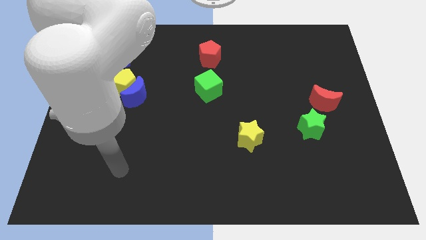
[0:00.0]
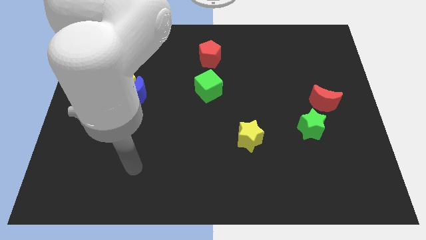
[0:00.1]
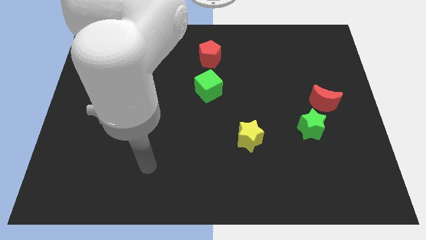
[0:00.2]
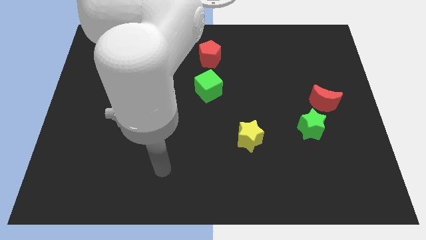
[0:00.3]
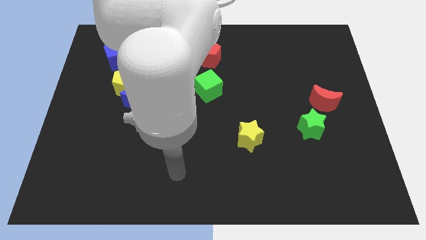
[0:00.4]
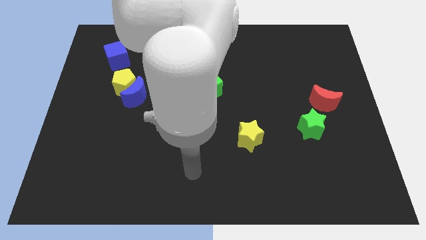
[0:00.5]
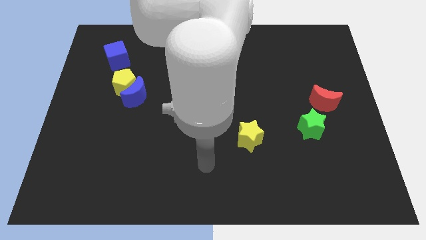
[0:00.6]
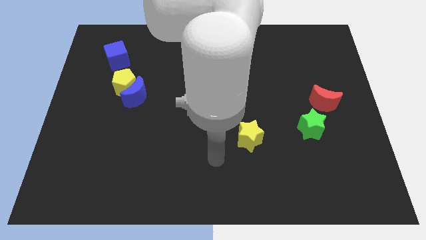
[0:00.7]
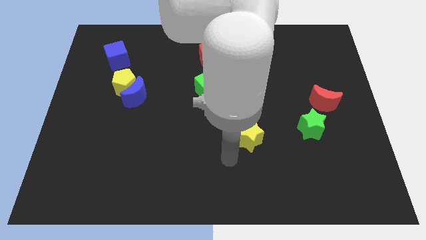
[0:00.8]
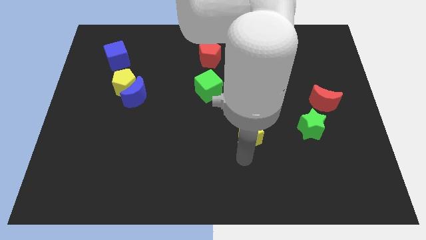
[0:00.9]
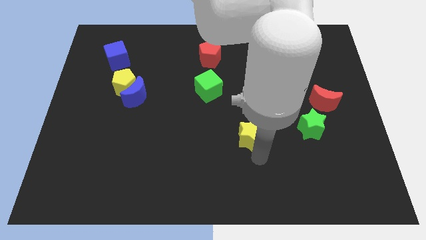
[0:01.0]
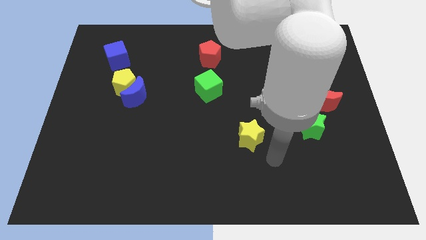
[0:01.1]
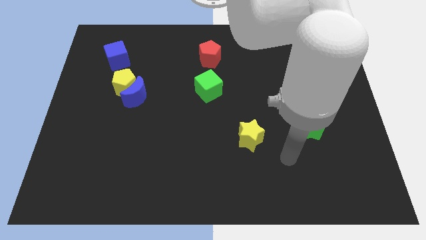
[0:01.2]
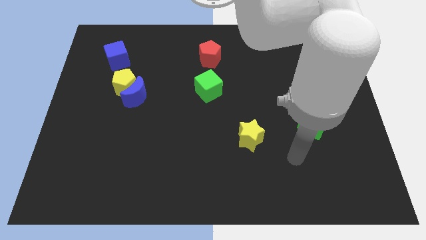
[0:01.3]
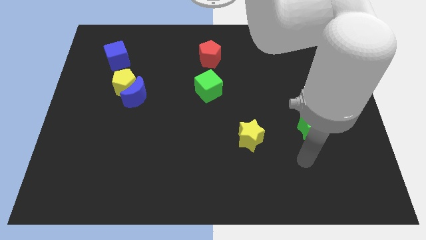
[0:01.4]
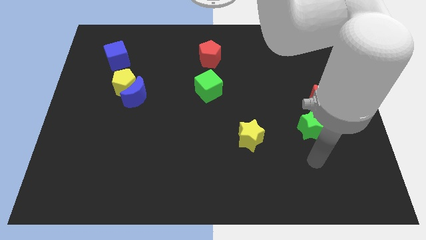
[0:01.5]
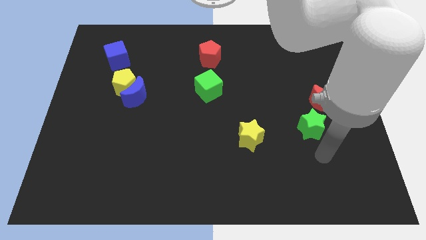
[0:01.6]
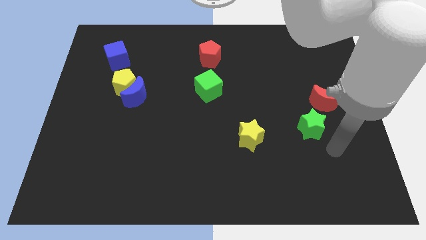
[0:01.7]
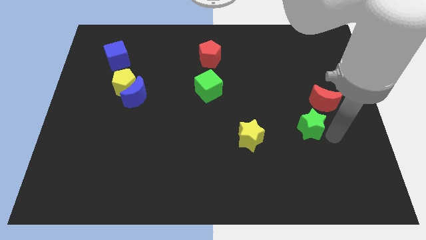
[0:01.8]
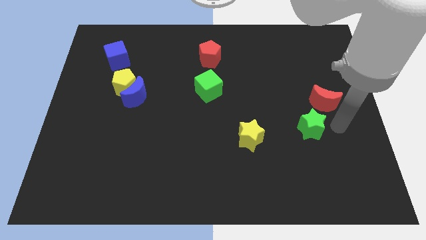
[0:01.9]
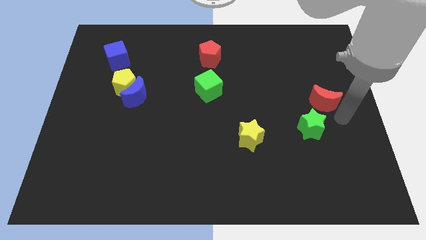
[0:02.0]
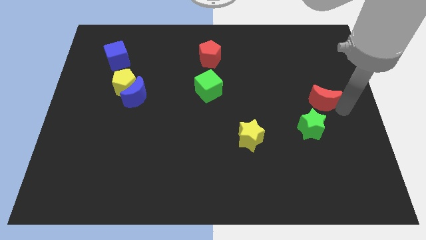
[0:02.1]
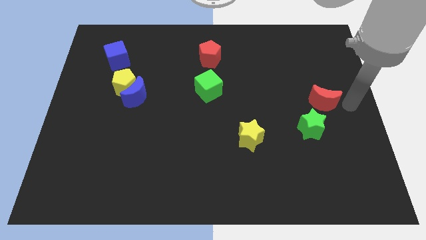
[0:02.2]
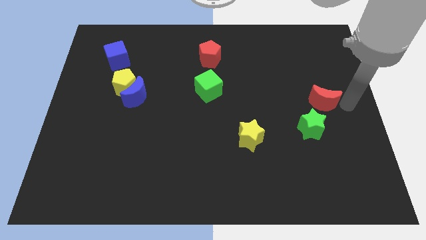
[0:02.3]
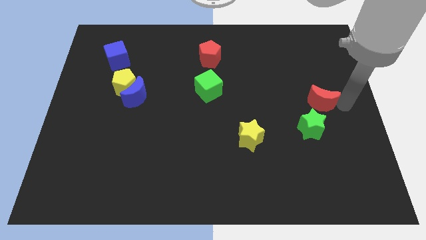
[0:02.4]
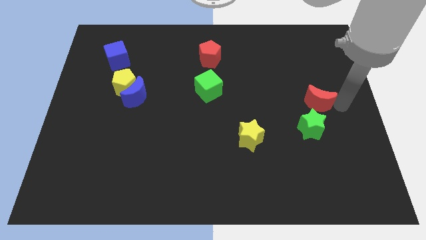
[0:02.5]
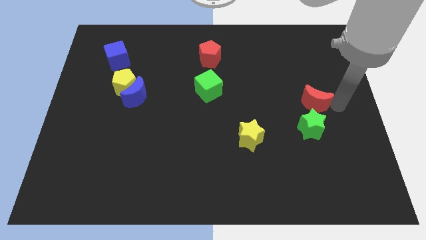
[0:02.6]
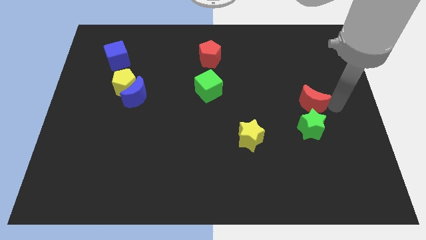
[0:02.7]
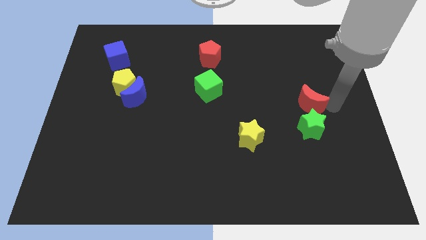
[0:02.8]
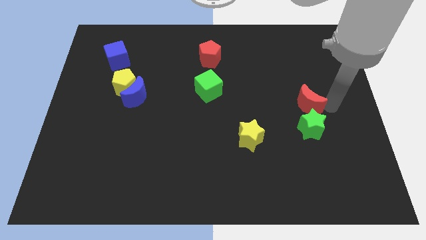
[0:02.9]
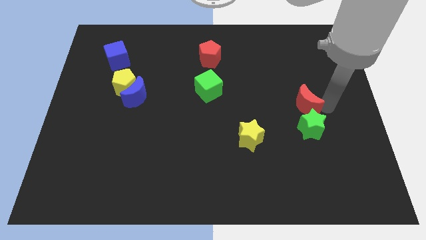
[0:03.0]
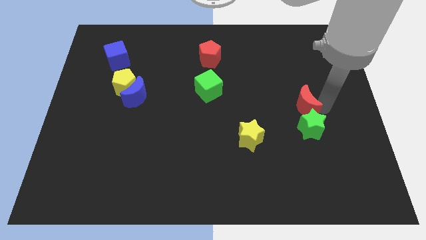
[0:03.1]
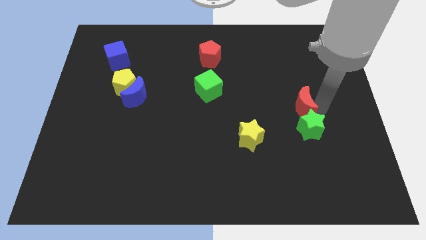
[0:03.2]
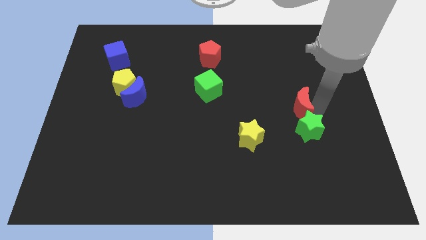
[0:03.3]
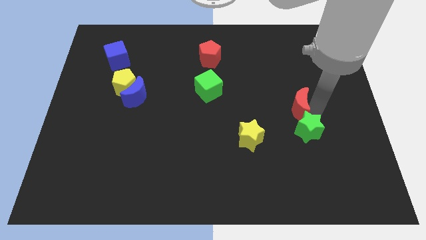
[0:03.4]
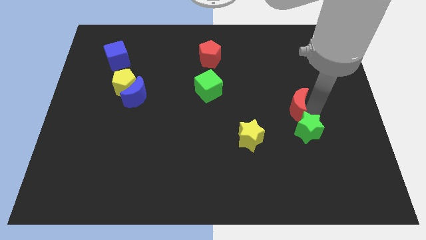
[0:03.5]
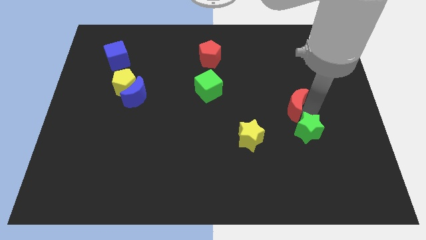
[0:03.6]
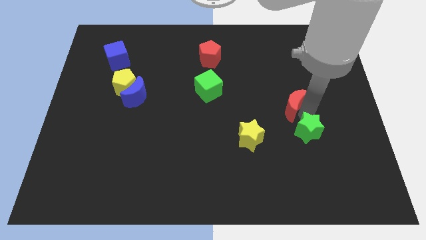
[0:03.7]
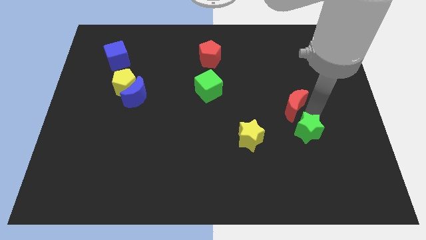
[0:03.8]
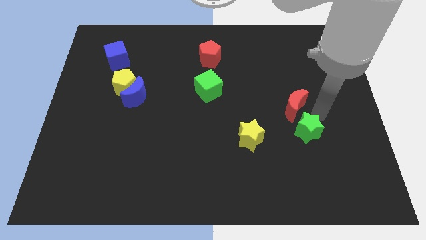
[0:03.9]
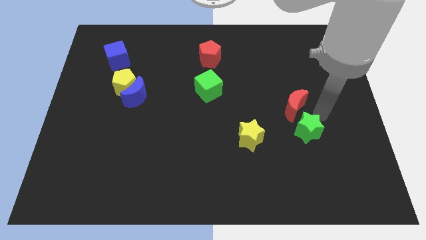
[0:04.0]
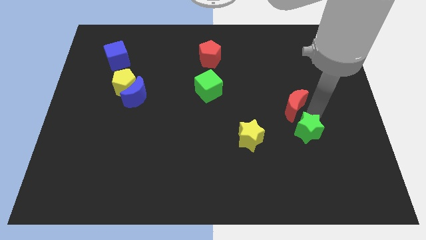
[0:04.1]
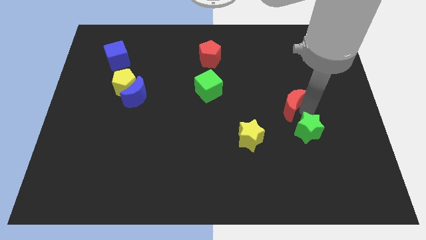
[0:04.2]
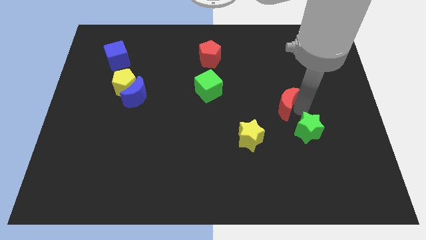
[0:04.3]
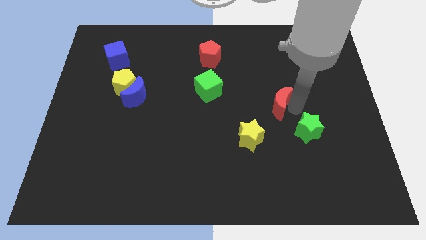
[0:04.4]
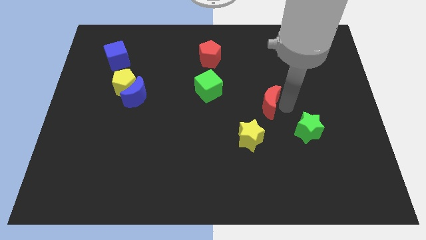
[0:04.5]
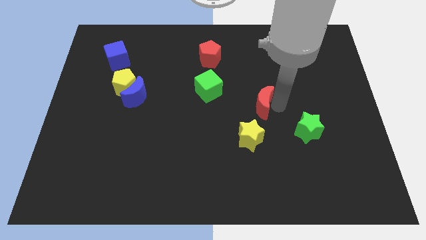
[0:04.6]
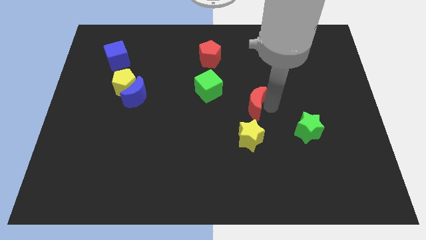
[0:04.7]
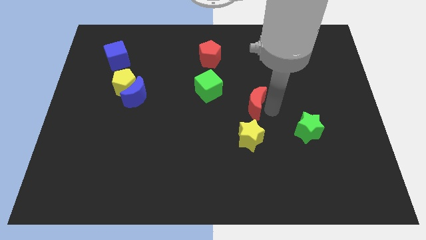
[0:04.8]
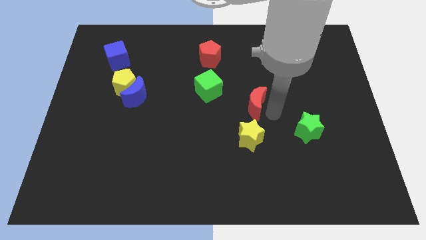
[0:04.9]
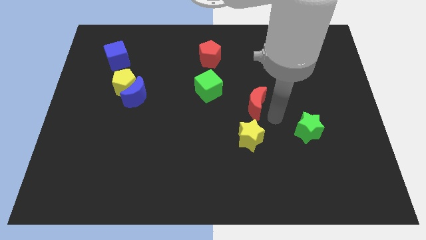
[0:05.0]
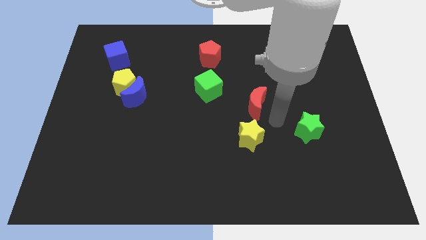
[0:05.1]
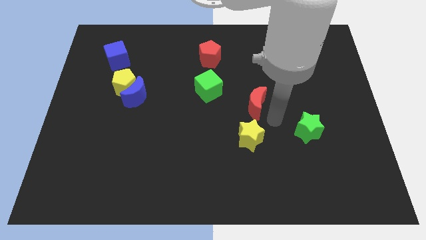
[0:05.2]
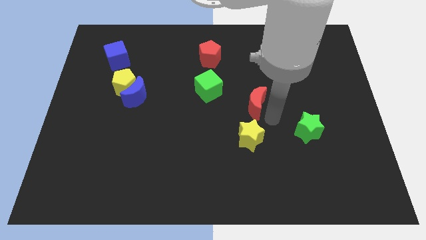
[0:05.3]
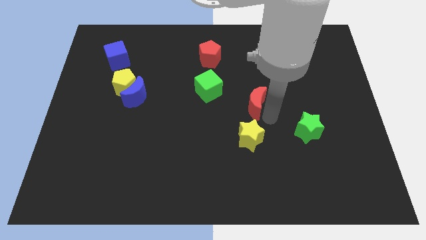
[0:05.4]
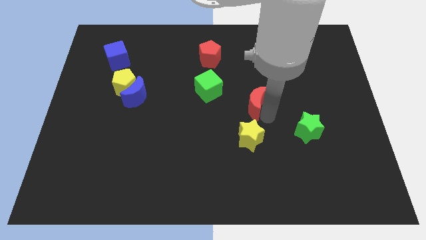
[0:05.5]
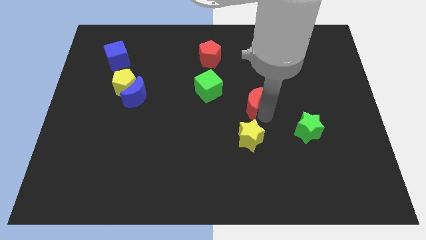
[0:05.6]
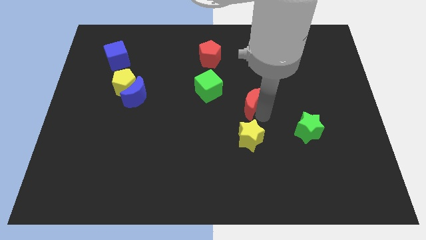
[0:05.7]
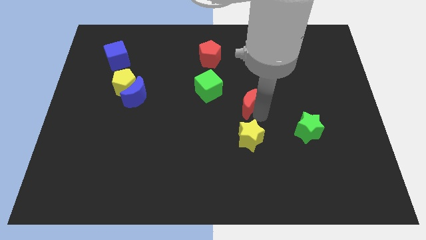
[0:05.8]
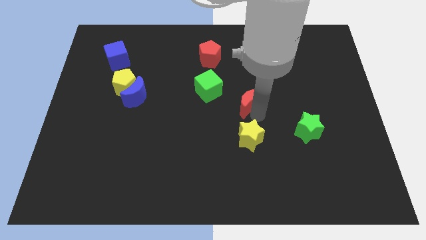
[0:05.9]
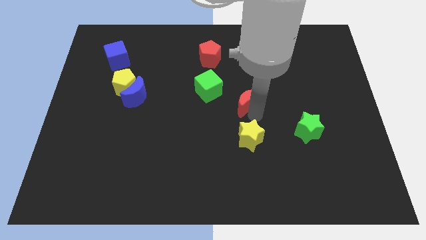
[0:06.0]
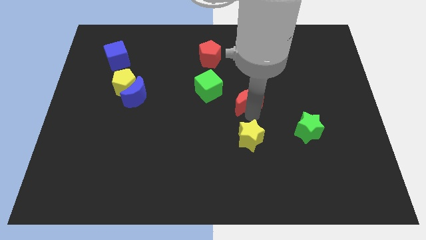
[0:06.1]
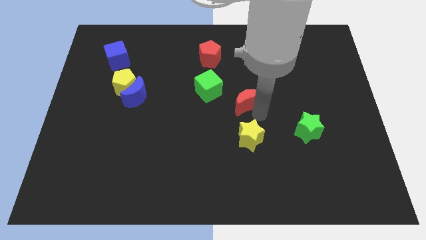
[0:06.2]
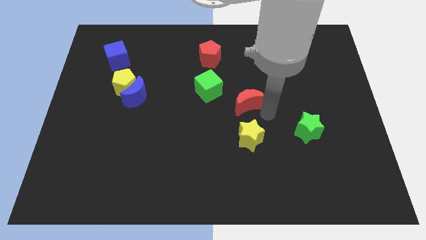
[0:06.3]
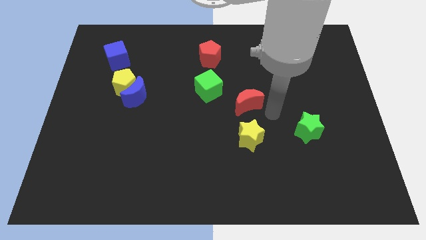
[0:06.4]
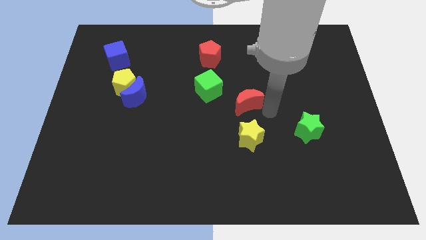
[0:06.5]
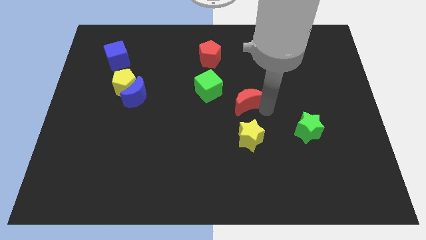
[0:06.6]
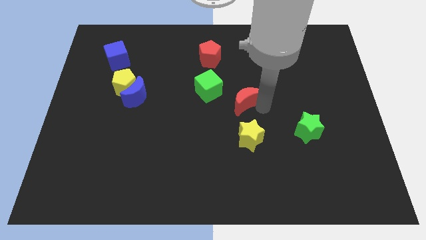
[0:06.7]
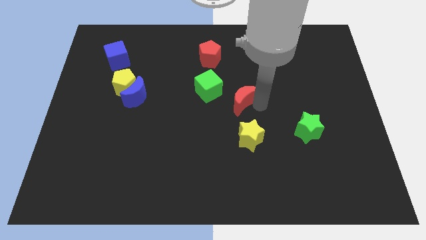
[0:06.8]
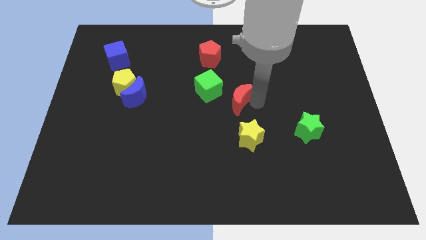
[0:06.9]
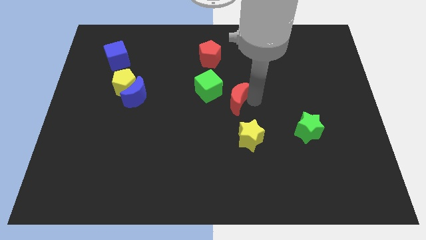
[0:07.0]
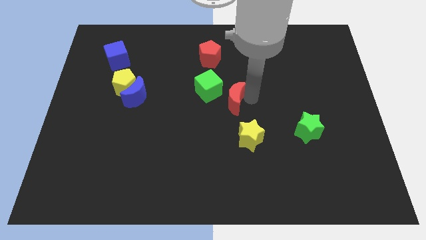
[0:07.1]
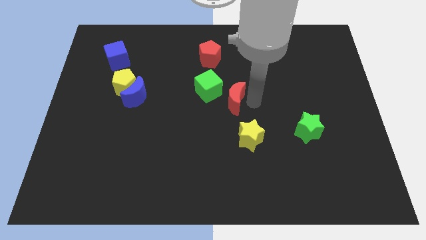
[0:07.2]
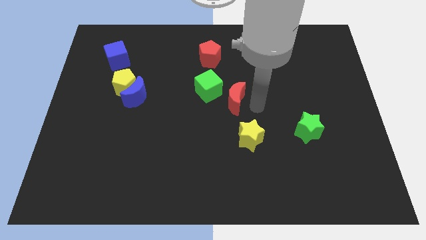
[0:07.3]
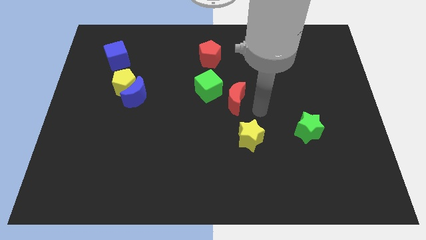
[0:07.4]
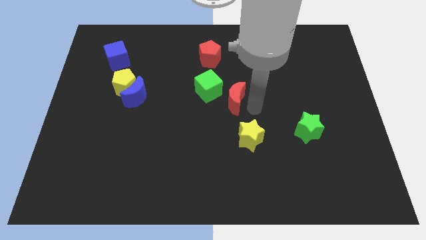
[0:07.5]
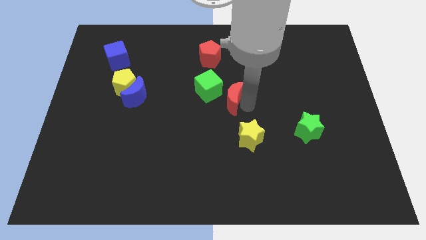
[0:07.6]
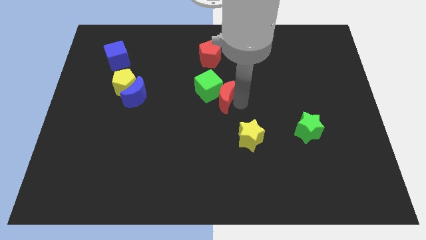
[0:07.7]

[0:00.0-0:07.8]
slide the red moon close to the green cube
